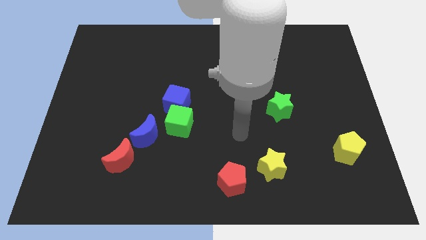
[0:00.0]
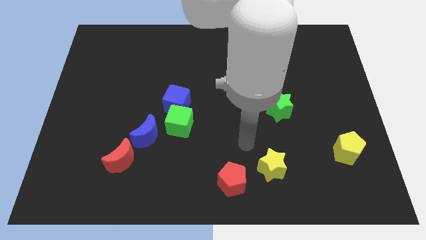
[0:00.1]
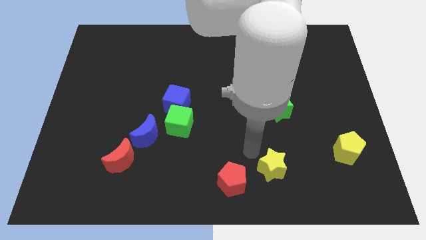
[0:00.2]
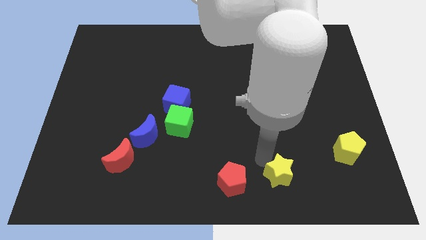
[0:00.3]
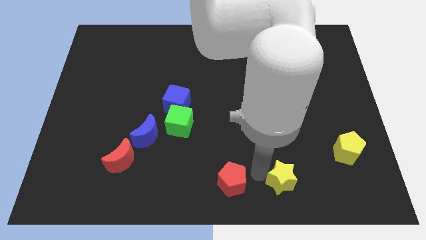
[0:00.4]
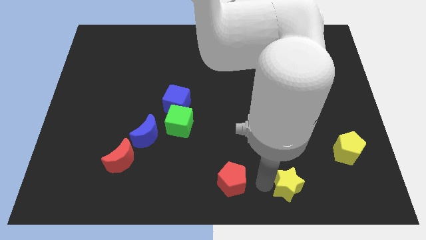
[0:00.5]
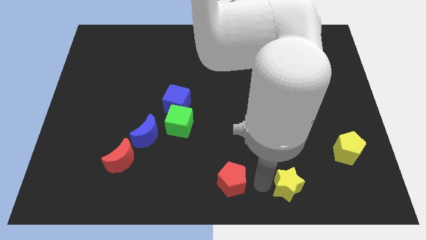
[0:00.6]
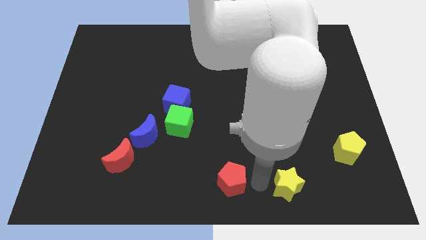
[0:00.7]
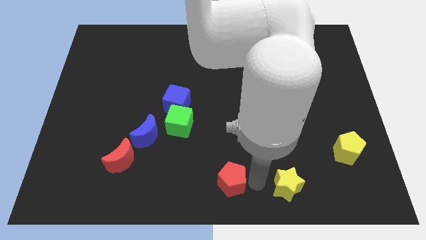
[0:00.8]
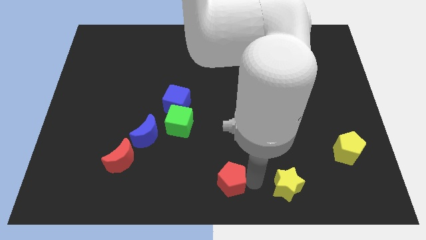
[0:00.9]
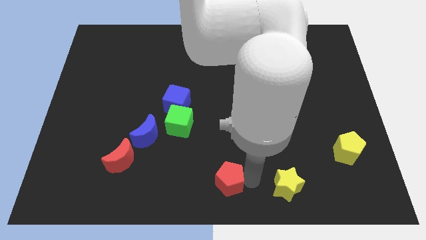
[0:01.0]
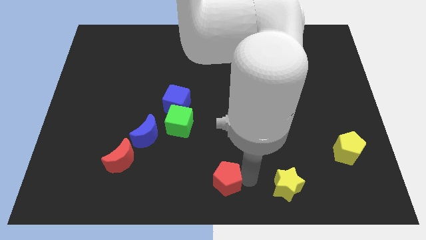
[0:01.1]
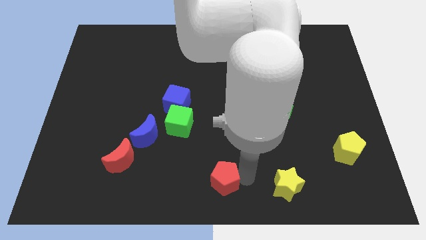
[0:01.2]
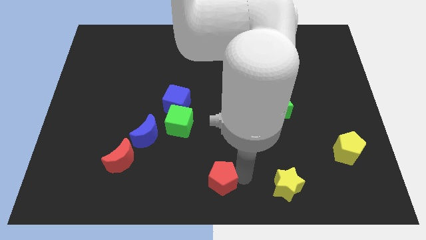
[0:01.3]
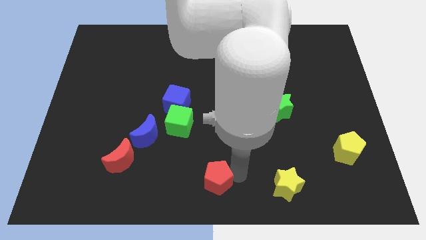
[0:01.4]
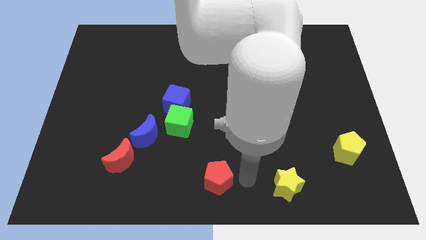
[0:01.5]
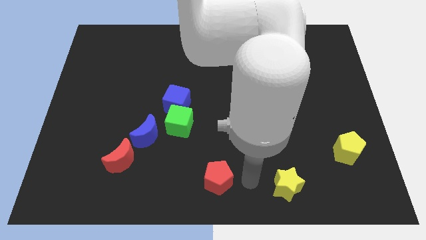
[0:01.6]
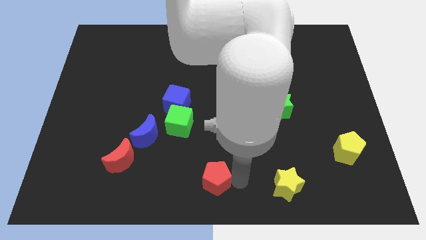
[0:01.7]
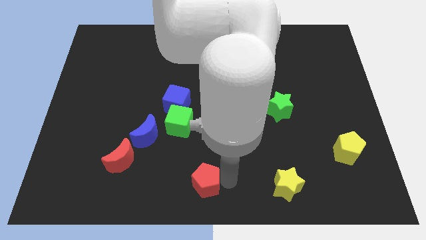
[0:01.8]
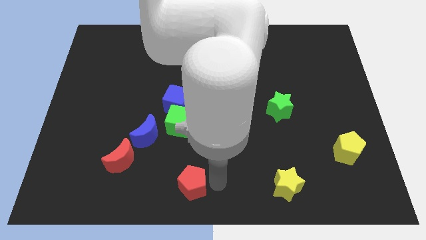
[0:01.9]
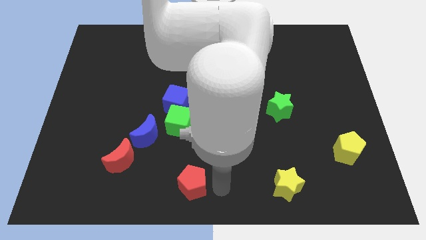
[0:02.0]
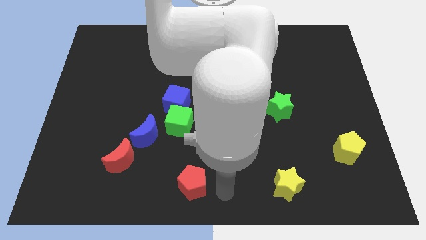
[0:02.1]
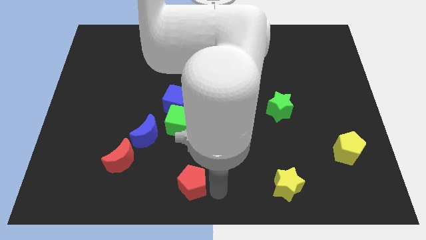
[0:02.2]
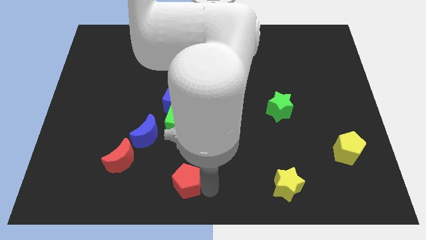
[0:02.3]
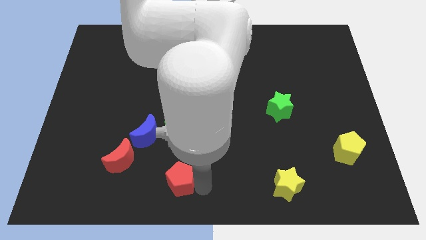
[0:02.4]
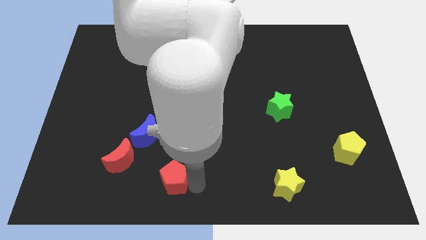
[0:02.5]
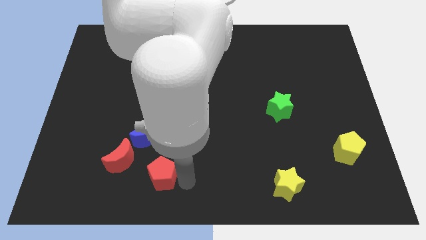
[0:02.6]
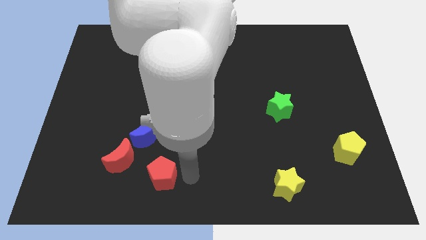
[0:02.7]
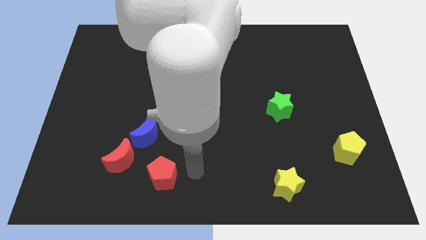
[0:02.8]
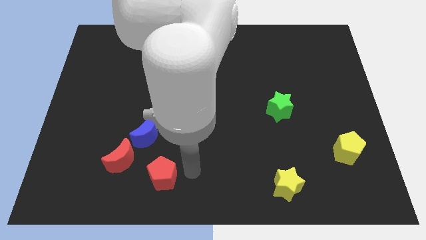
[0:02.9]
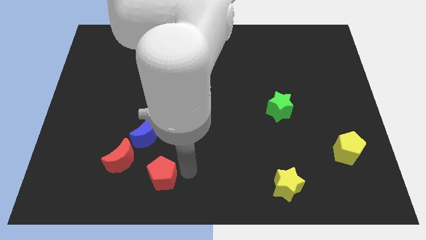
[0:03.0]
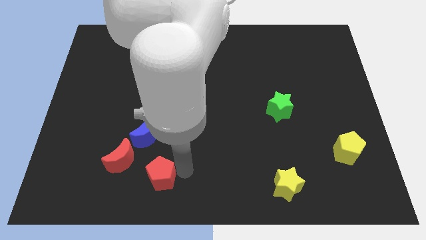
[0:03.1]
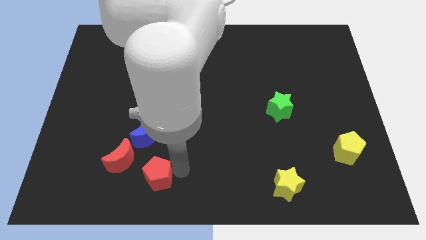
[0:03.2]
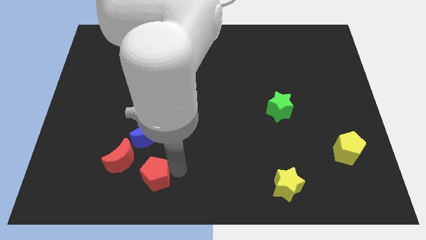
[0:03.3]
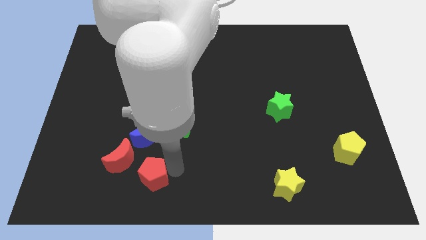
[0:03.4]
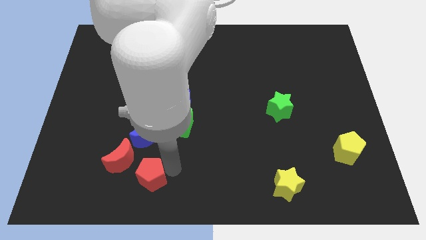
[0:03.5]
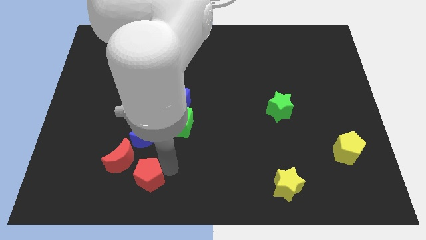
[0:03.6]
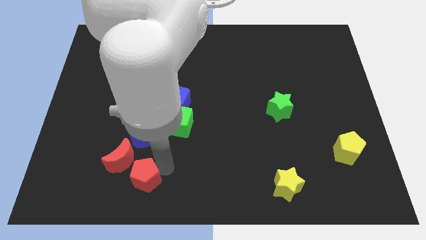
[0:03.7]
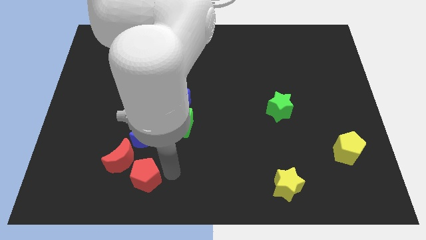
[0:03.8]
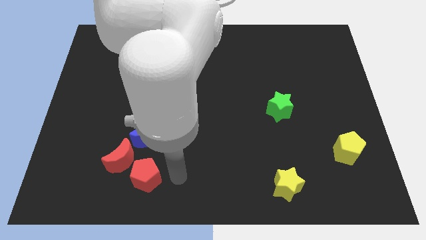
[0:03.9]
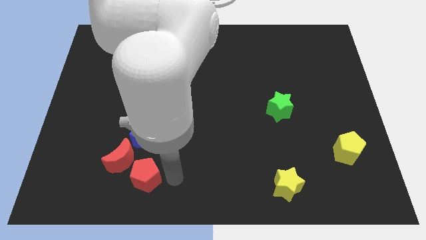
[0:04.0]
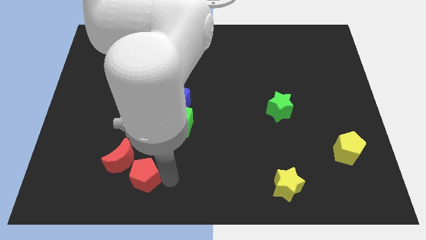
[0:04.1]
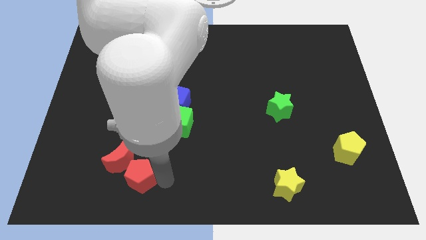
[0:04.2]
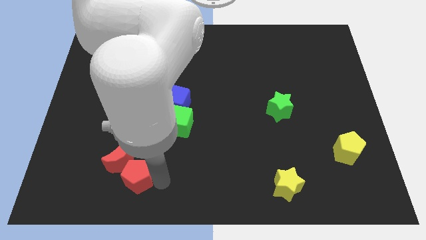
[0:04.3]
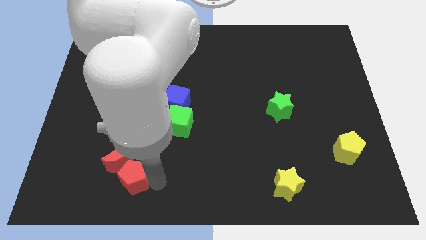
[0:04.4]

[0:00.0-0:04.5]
push the red pentagon left

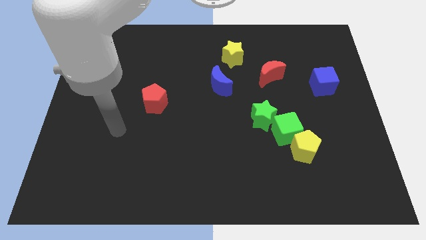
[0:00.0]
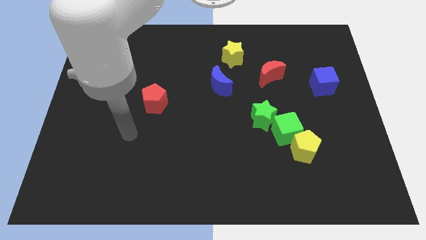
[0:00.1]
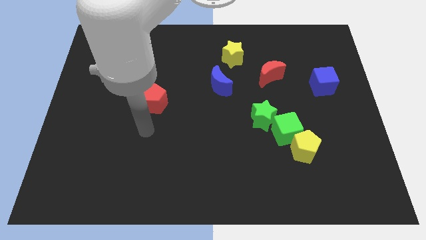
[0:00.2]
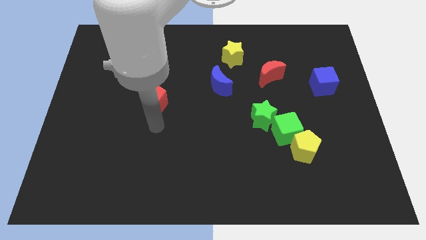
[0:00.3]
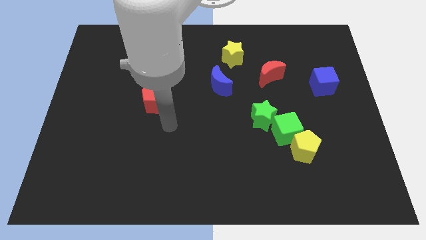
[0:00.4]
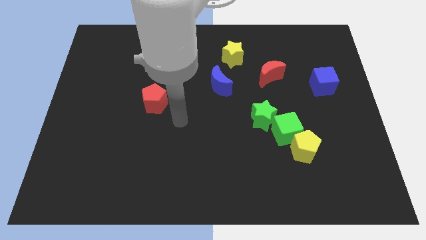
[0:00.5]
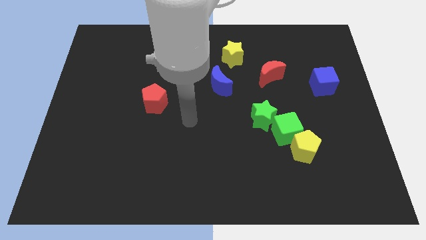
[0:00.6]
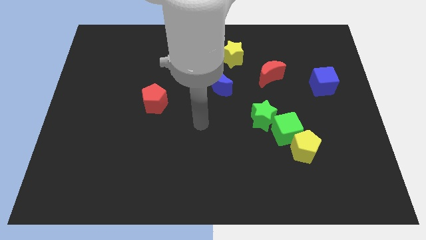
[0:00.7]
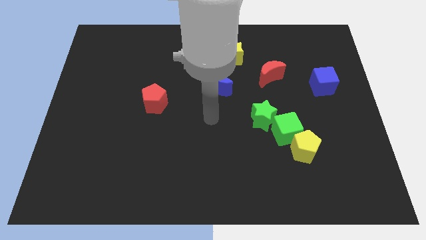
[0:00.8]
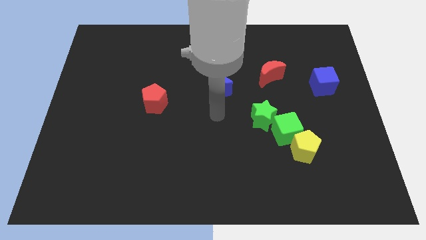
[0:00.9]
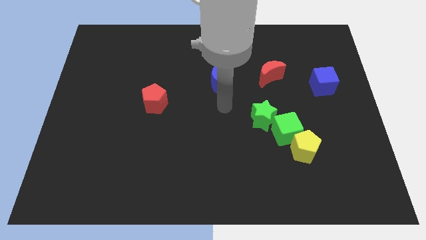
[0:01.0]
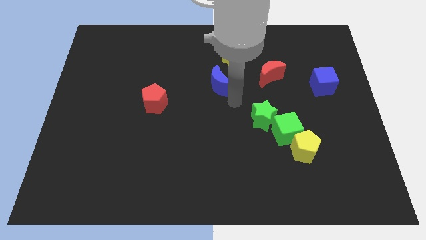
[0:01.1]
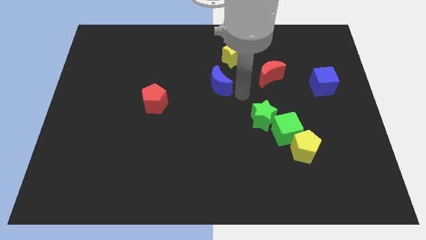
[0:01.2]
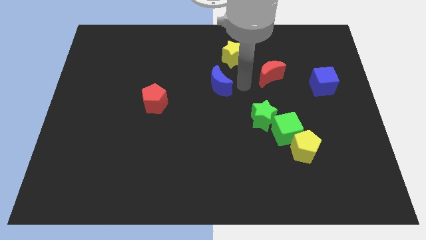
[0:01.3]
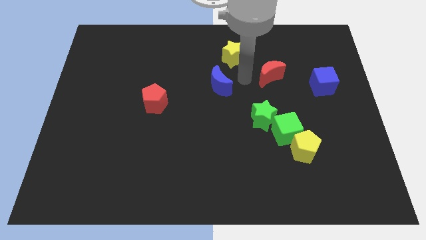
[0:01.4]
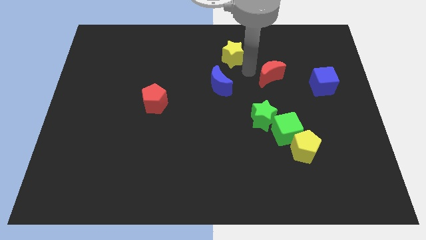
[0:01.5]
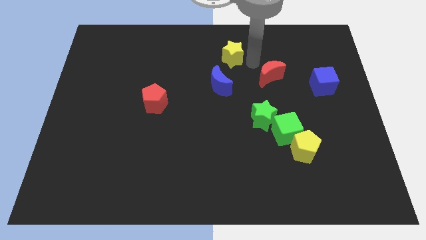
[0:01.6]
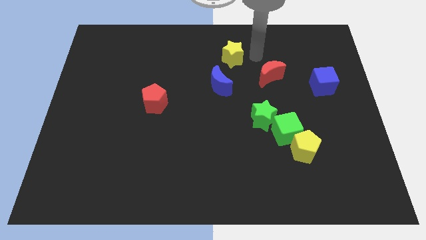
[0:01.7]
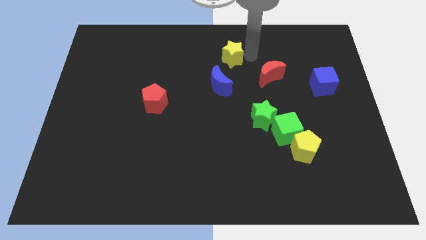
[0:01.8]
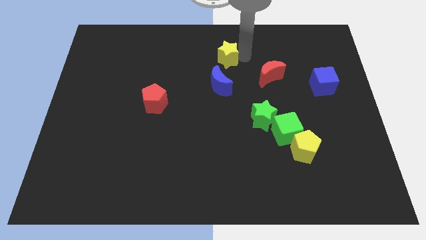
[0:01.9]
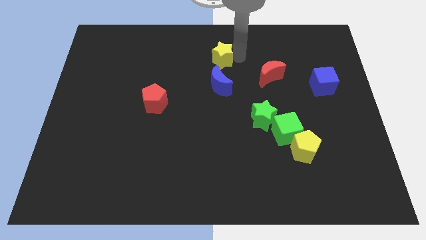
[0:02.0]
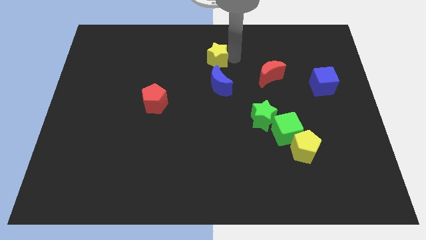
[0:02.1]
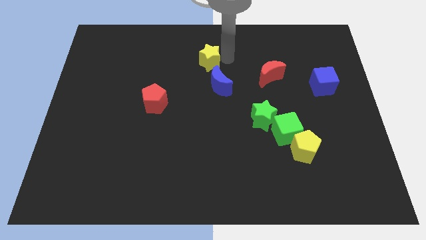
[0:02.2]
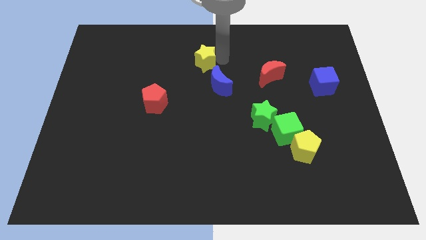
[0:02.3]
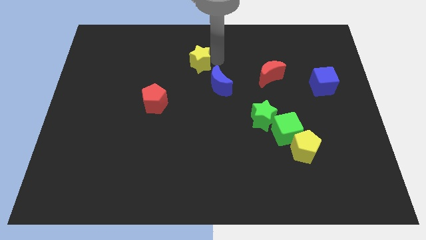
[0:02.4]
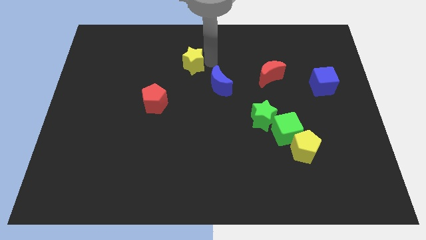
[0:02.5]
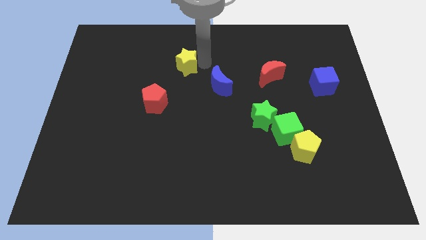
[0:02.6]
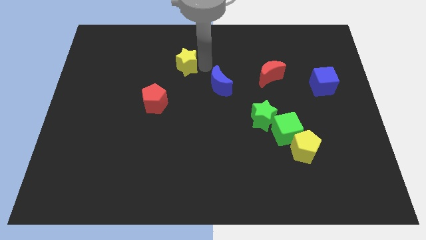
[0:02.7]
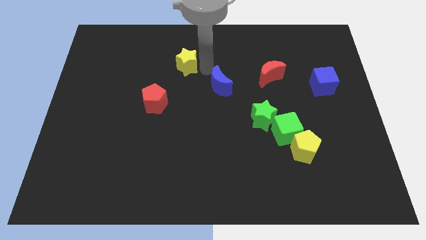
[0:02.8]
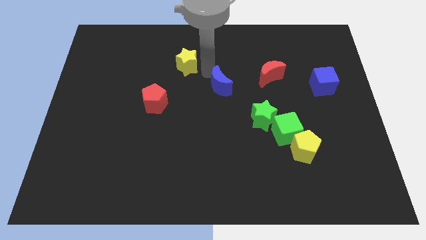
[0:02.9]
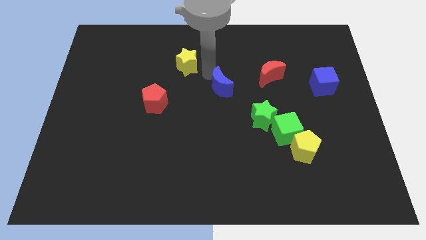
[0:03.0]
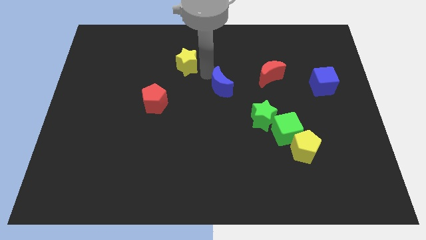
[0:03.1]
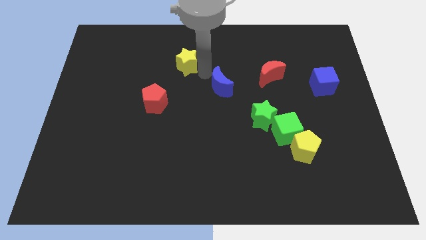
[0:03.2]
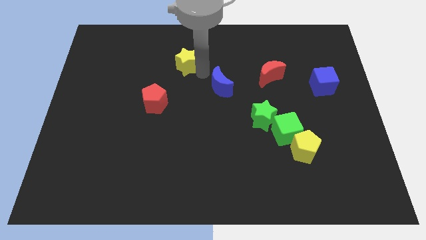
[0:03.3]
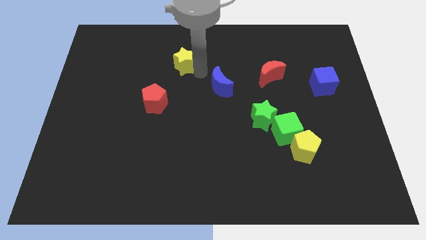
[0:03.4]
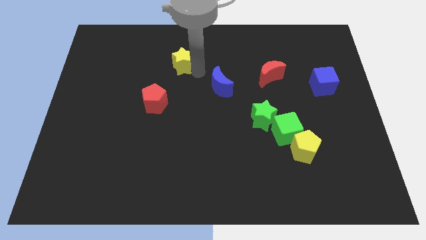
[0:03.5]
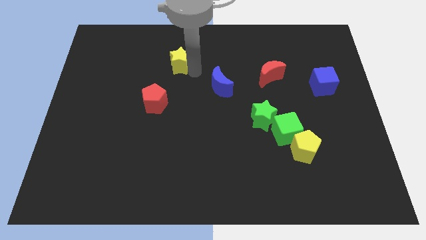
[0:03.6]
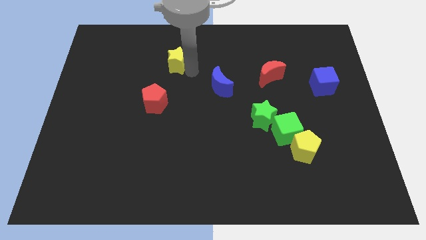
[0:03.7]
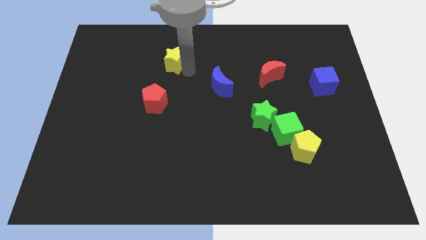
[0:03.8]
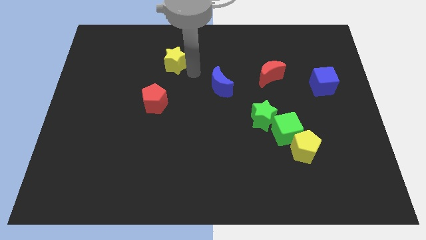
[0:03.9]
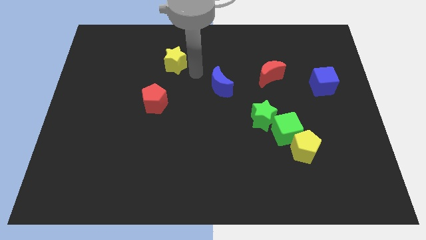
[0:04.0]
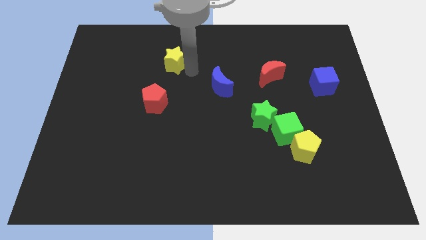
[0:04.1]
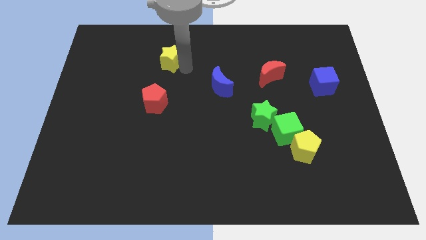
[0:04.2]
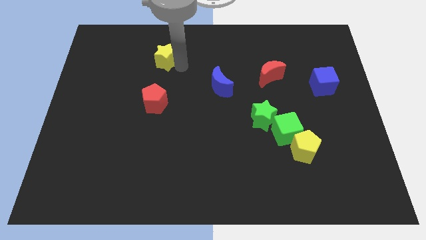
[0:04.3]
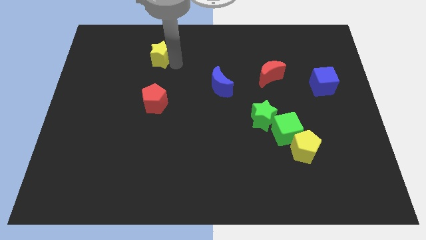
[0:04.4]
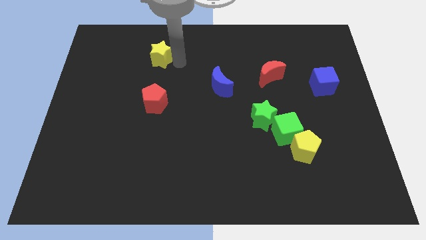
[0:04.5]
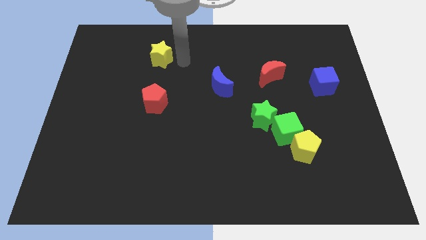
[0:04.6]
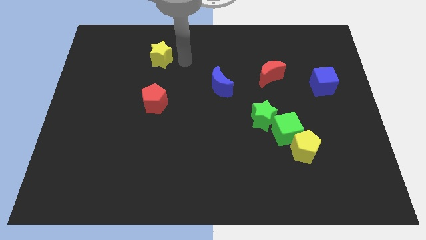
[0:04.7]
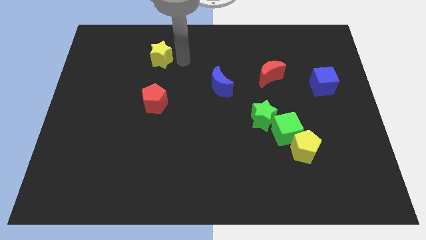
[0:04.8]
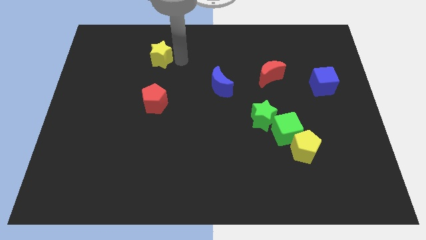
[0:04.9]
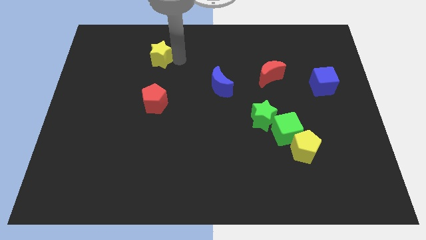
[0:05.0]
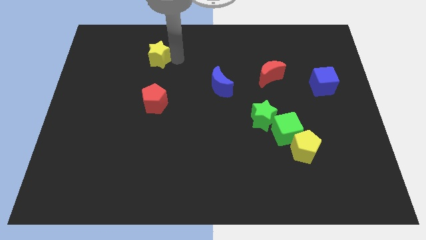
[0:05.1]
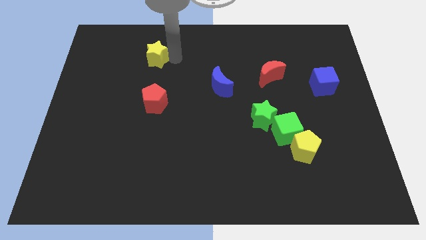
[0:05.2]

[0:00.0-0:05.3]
move the yellow star left
